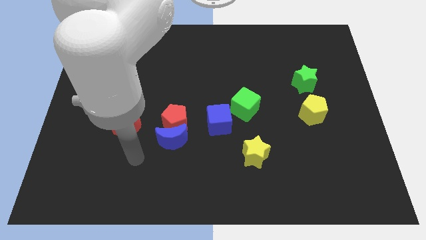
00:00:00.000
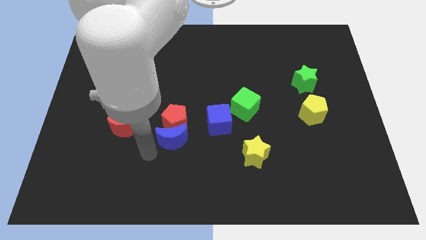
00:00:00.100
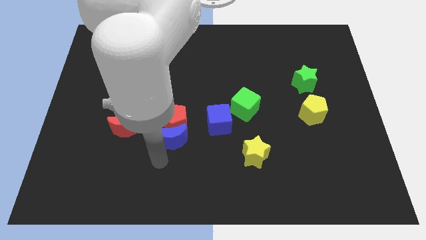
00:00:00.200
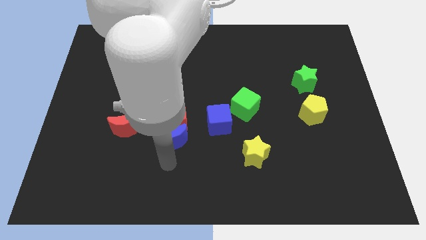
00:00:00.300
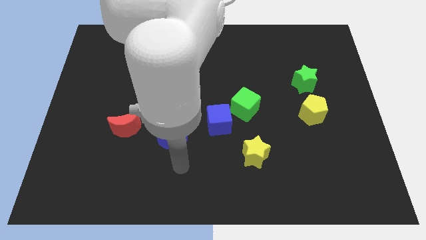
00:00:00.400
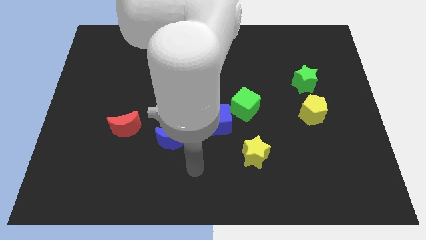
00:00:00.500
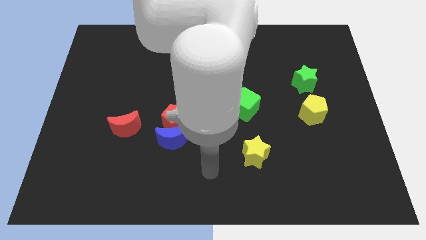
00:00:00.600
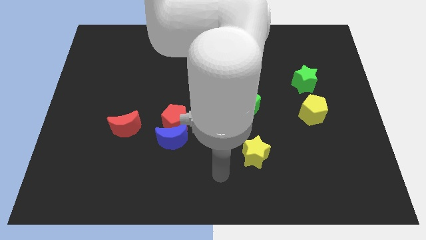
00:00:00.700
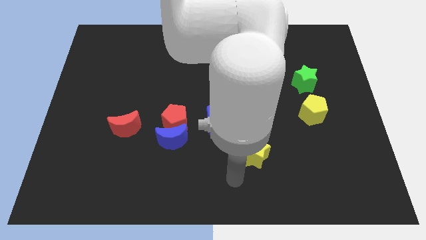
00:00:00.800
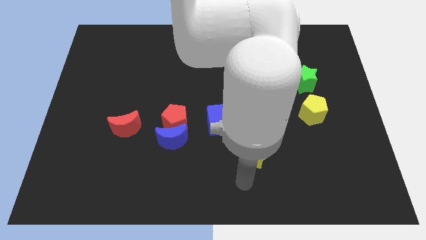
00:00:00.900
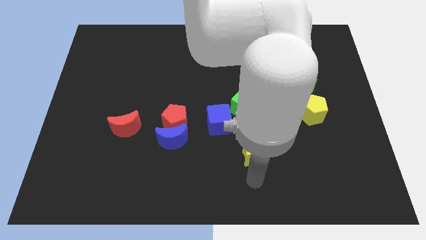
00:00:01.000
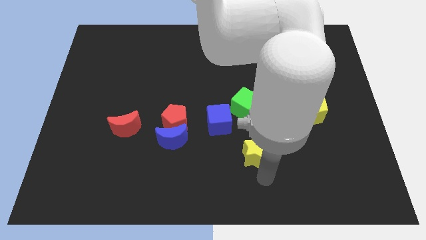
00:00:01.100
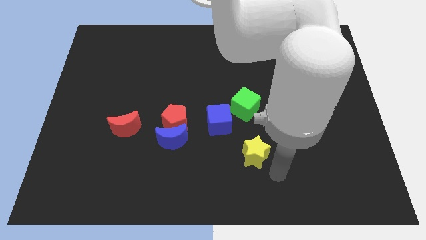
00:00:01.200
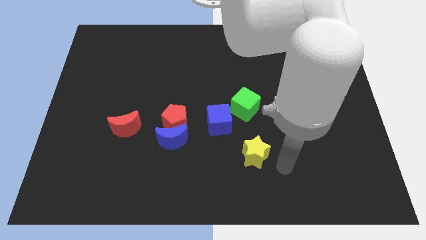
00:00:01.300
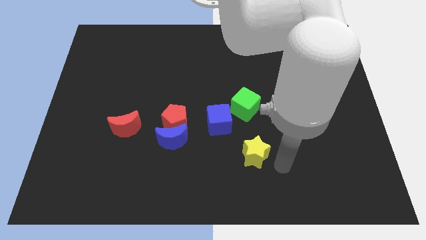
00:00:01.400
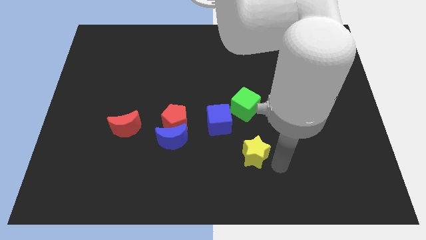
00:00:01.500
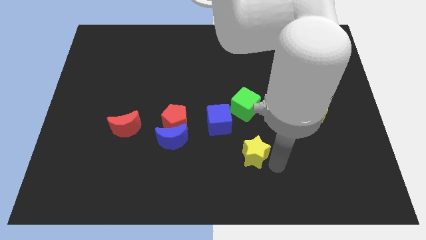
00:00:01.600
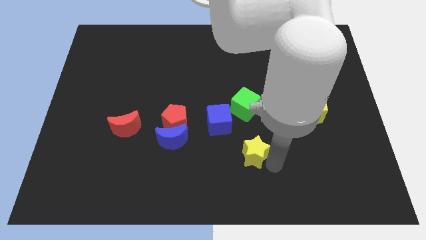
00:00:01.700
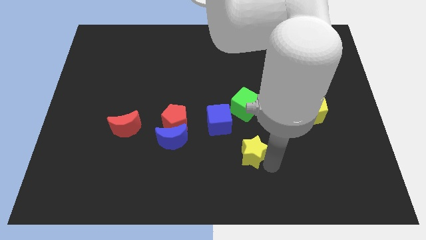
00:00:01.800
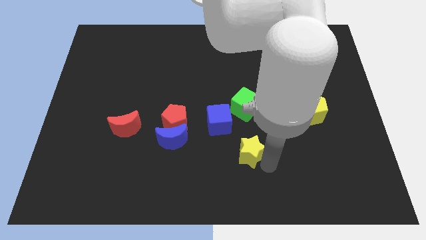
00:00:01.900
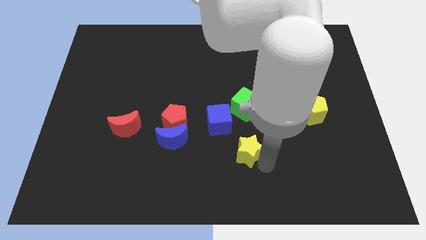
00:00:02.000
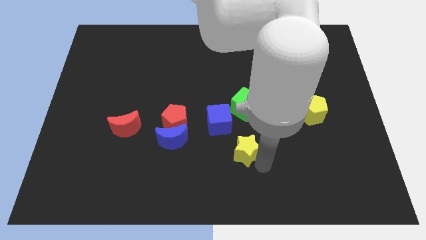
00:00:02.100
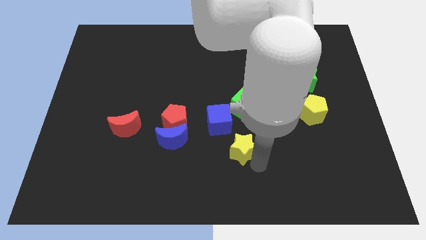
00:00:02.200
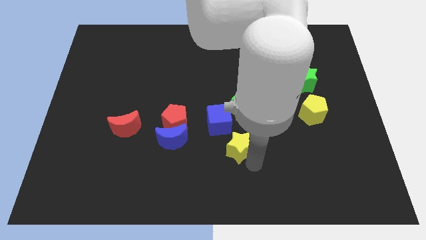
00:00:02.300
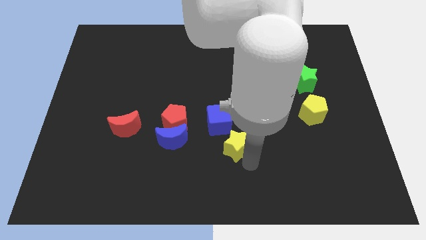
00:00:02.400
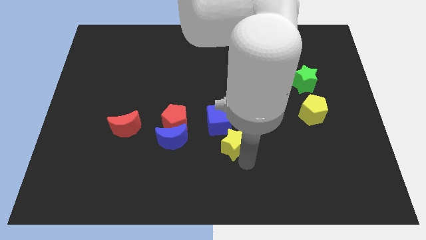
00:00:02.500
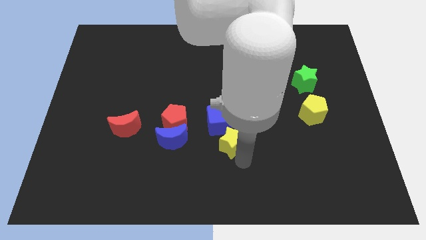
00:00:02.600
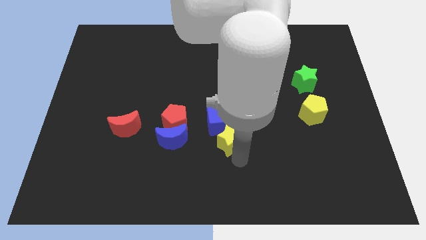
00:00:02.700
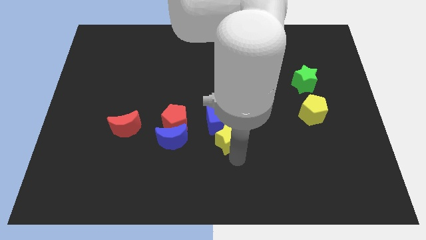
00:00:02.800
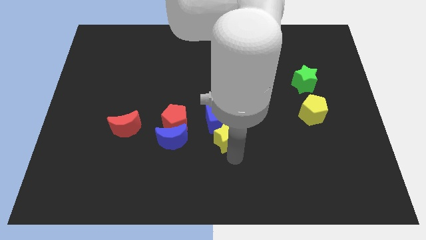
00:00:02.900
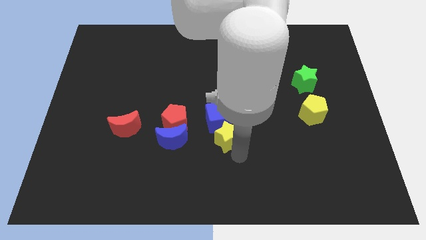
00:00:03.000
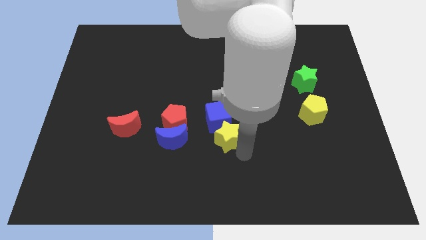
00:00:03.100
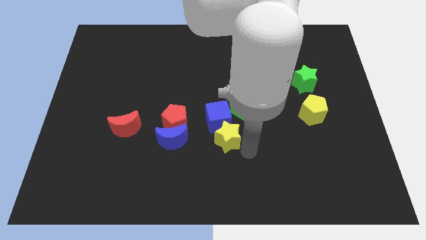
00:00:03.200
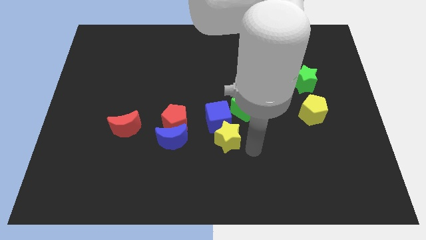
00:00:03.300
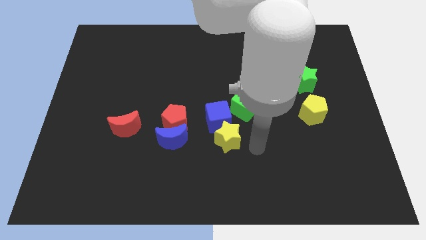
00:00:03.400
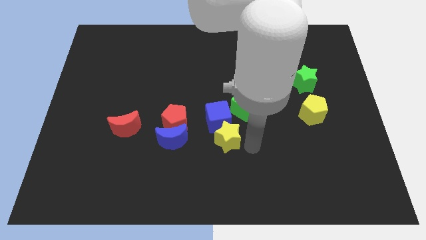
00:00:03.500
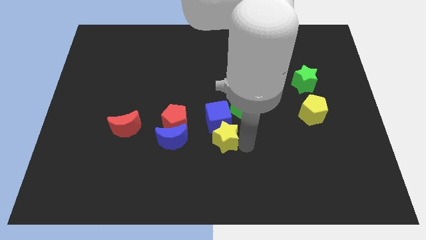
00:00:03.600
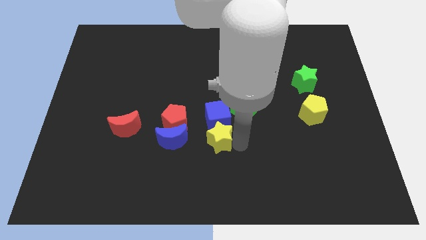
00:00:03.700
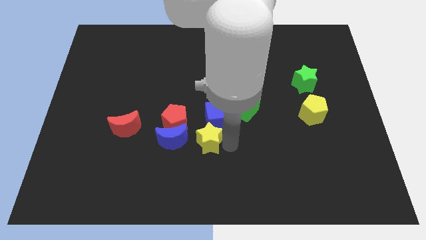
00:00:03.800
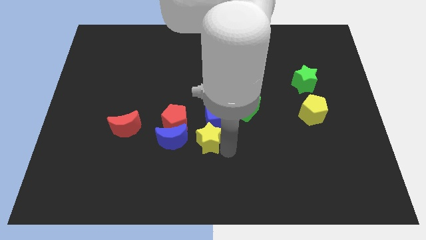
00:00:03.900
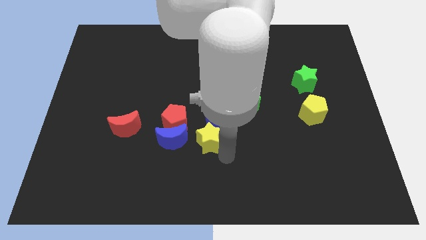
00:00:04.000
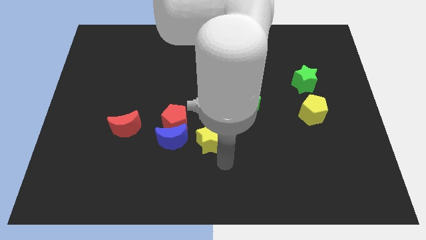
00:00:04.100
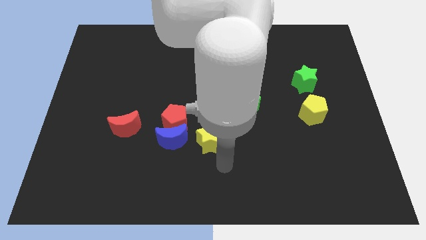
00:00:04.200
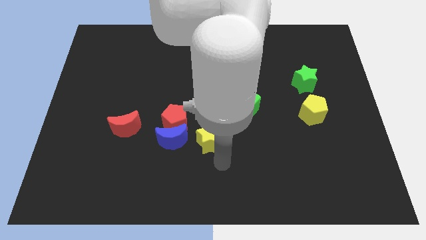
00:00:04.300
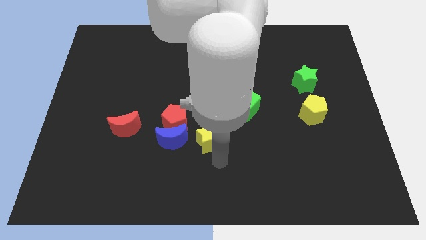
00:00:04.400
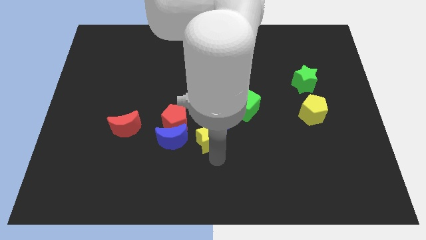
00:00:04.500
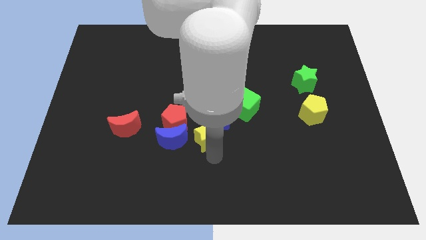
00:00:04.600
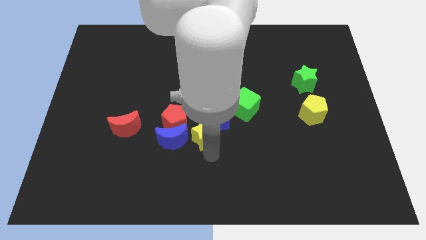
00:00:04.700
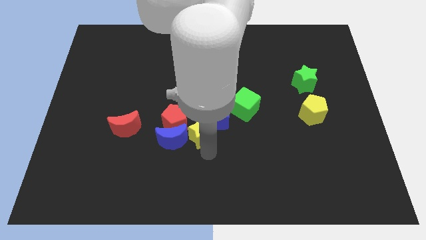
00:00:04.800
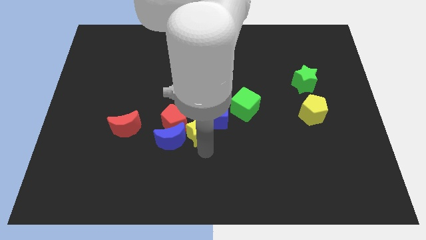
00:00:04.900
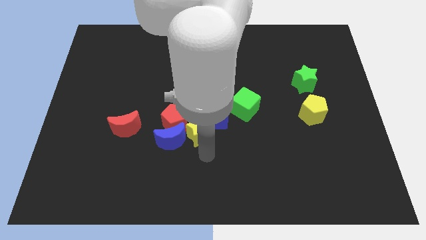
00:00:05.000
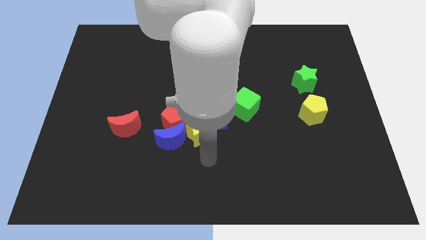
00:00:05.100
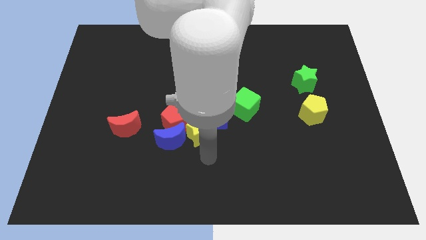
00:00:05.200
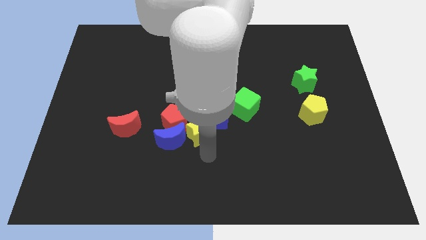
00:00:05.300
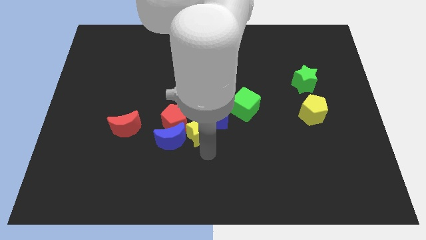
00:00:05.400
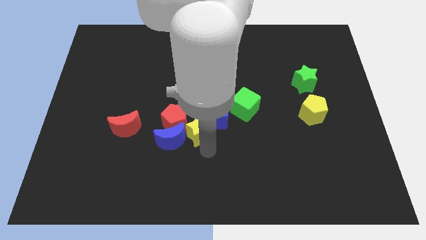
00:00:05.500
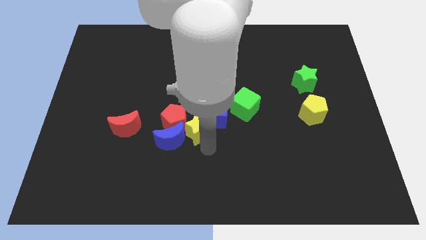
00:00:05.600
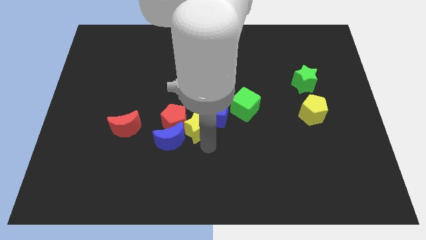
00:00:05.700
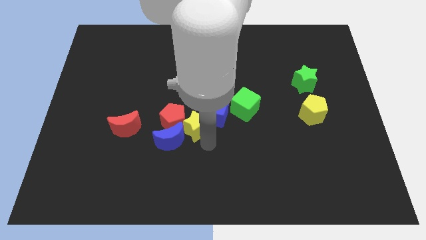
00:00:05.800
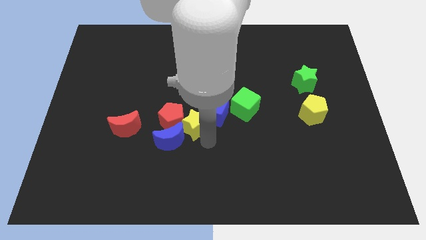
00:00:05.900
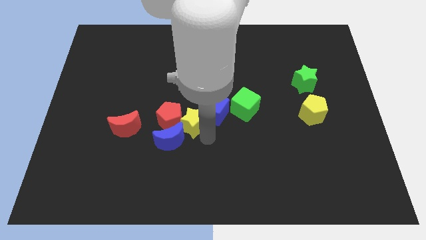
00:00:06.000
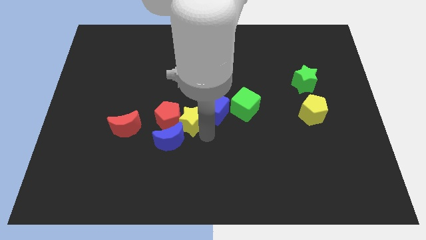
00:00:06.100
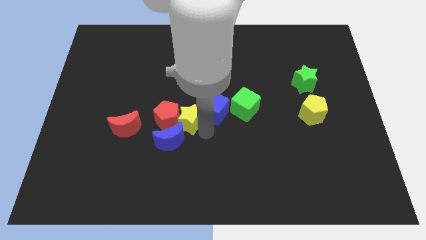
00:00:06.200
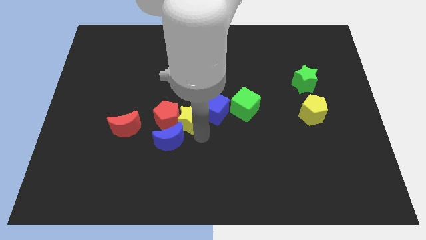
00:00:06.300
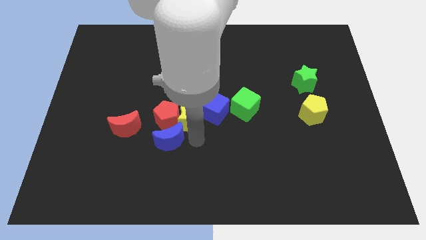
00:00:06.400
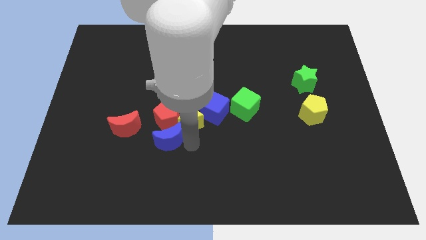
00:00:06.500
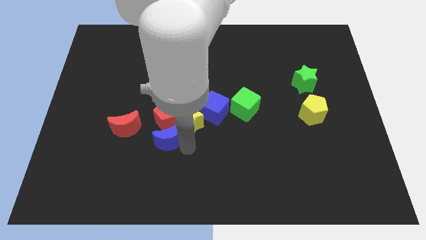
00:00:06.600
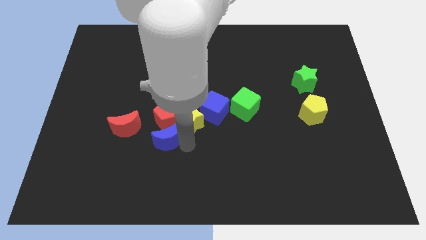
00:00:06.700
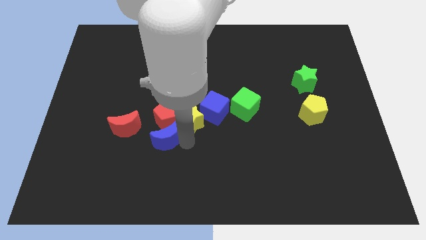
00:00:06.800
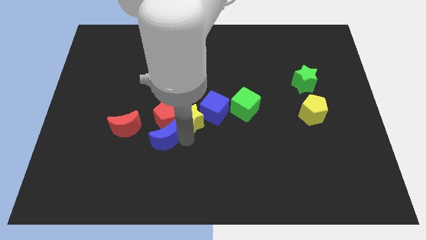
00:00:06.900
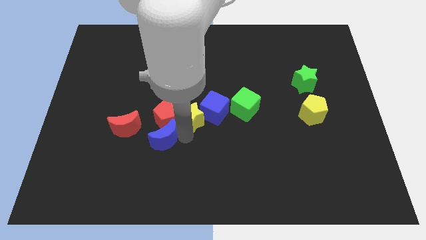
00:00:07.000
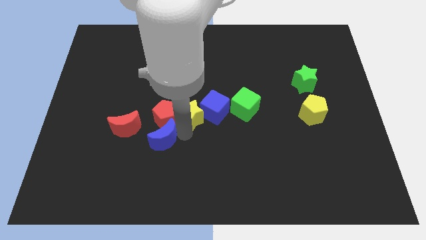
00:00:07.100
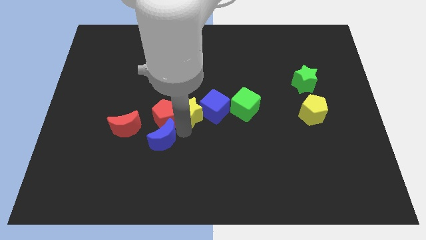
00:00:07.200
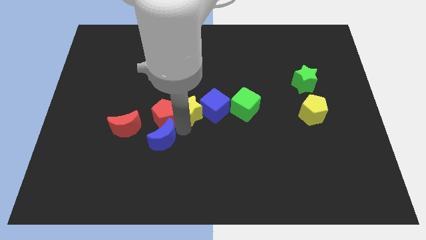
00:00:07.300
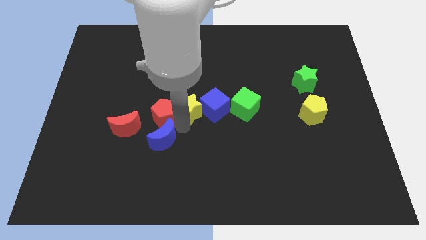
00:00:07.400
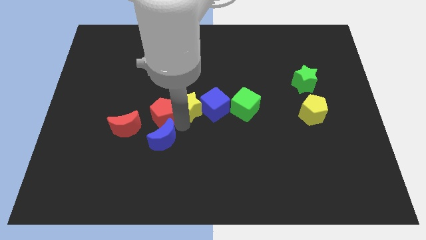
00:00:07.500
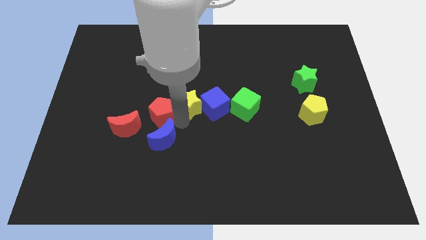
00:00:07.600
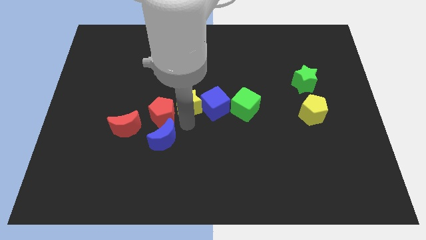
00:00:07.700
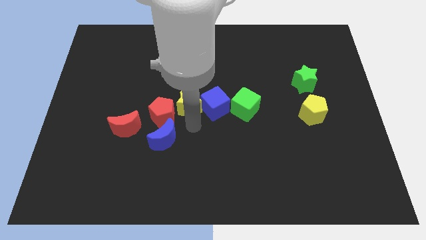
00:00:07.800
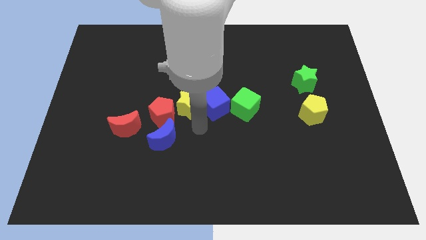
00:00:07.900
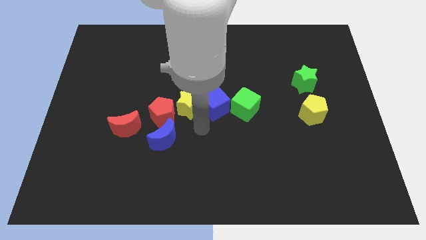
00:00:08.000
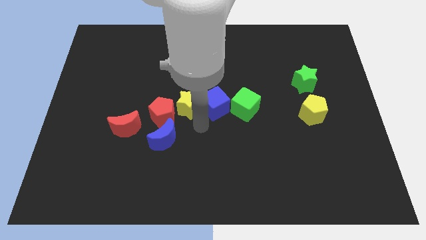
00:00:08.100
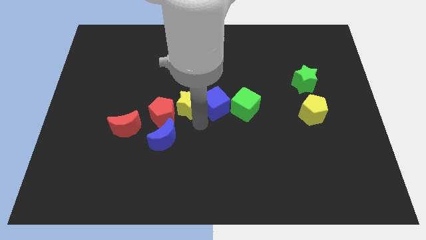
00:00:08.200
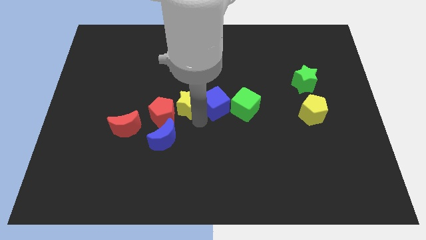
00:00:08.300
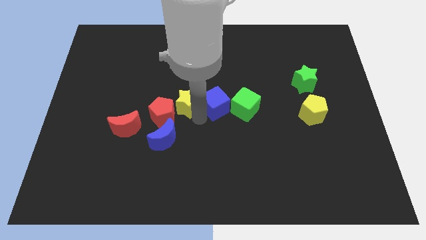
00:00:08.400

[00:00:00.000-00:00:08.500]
push the yellow star up and left diagonally
